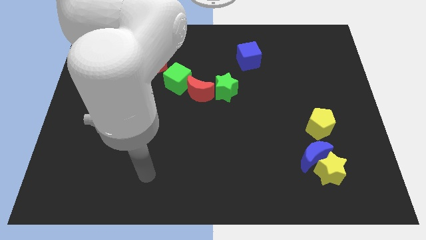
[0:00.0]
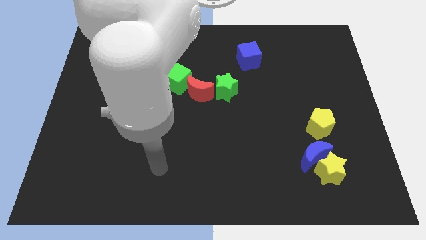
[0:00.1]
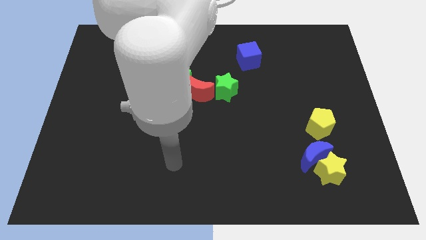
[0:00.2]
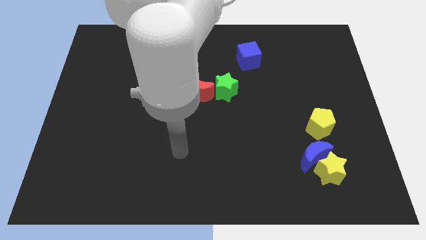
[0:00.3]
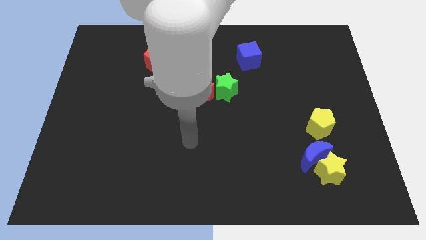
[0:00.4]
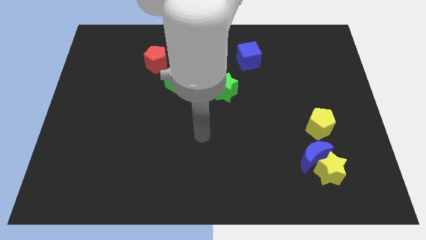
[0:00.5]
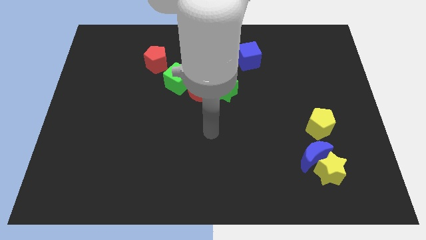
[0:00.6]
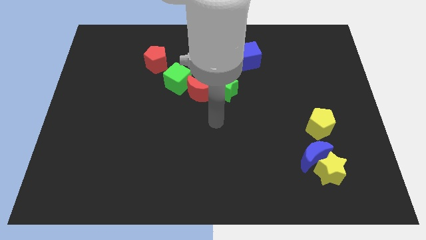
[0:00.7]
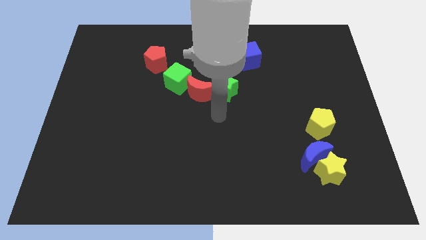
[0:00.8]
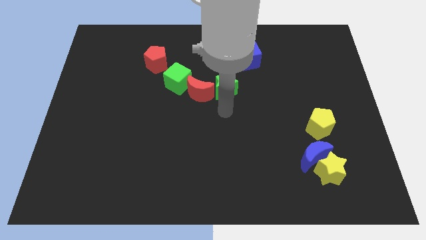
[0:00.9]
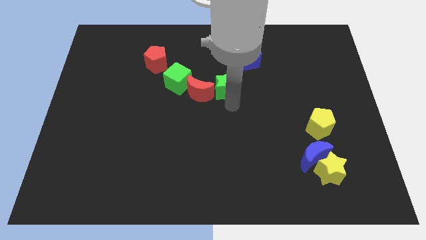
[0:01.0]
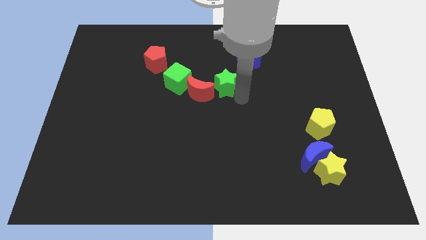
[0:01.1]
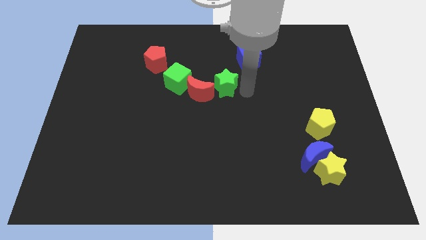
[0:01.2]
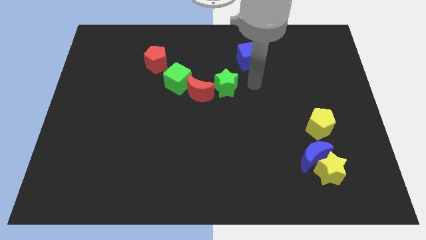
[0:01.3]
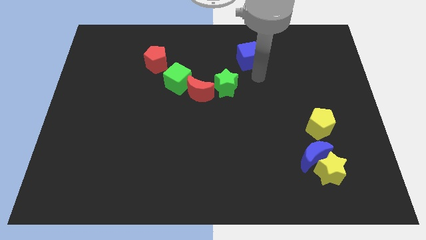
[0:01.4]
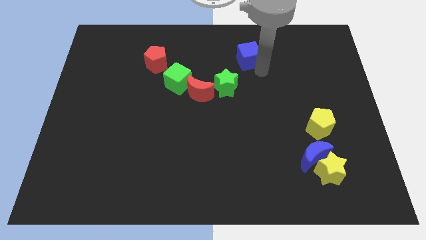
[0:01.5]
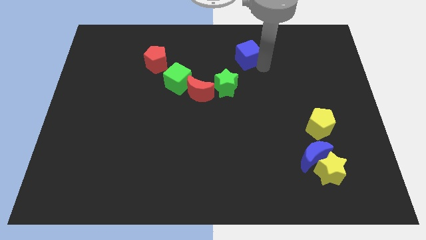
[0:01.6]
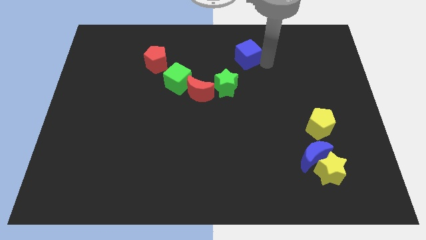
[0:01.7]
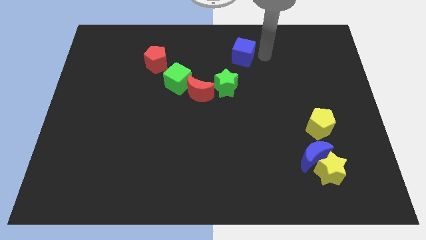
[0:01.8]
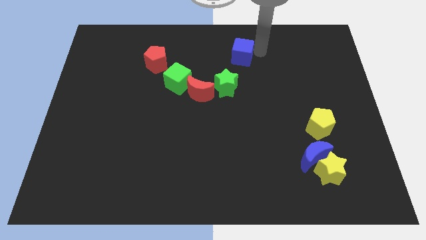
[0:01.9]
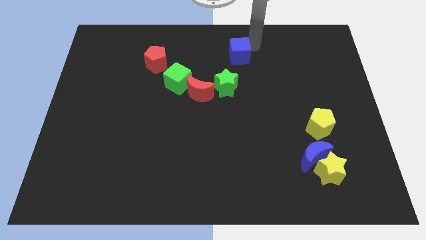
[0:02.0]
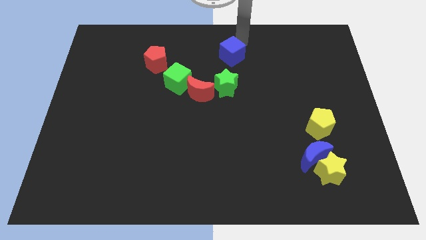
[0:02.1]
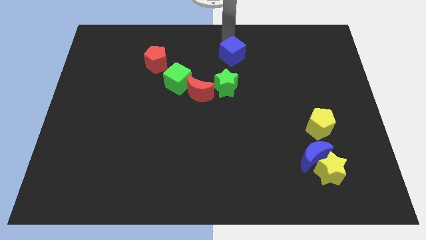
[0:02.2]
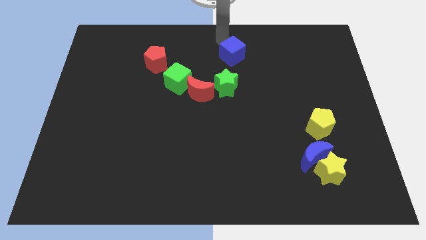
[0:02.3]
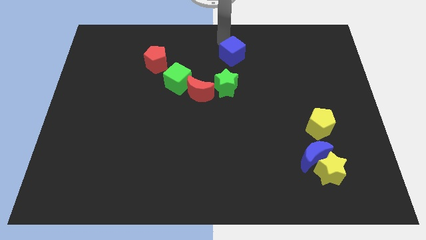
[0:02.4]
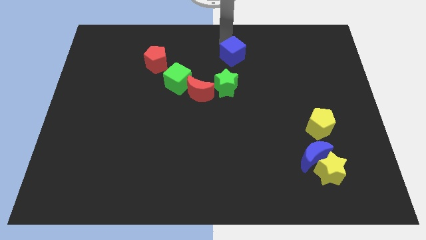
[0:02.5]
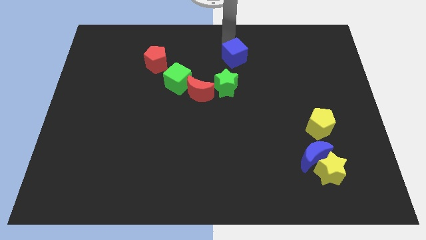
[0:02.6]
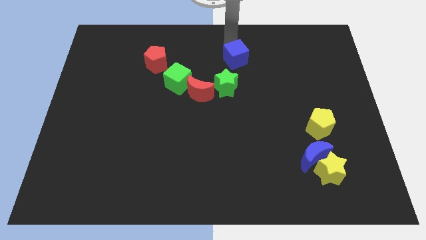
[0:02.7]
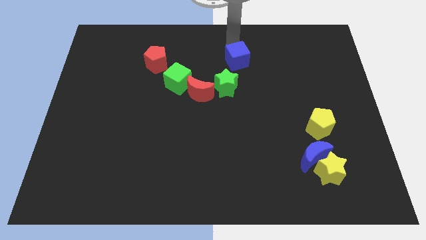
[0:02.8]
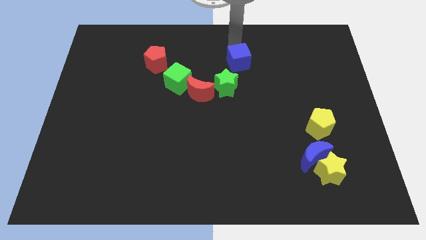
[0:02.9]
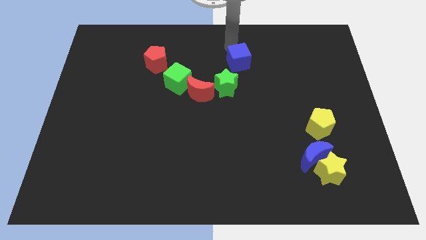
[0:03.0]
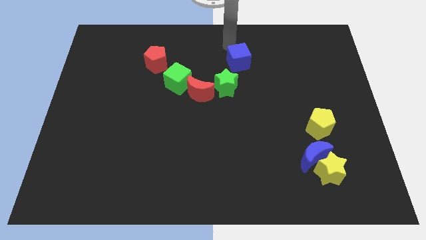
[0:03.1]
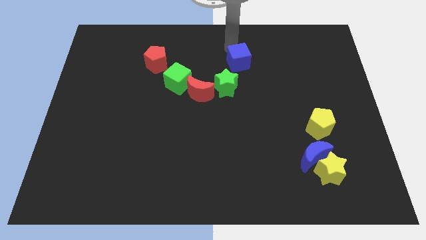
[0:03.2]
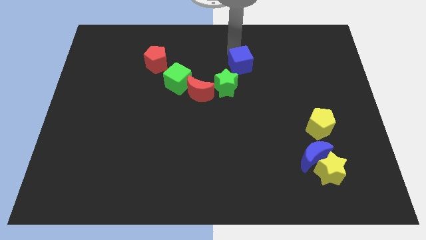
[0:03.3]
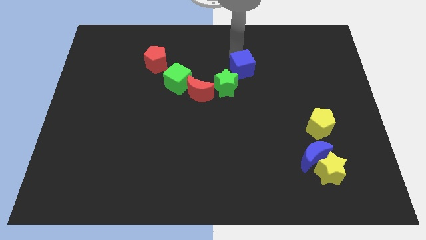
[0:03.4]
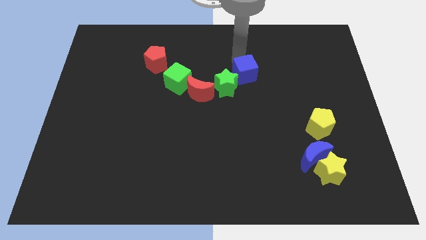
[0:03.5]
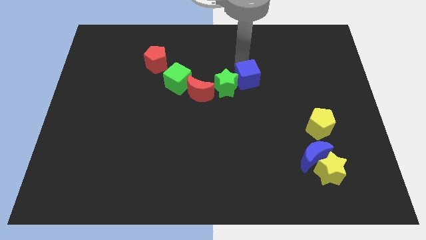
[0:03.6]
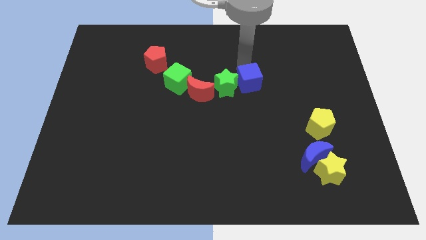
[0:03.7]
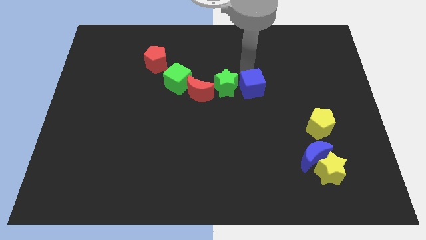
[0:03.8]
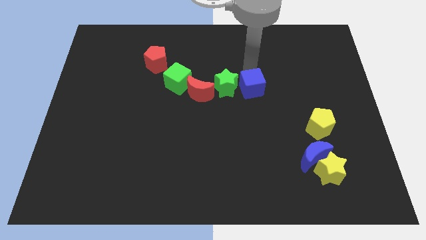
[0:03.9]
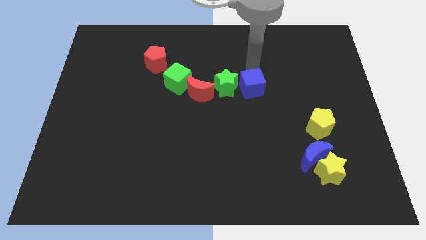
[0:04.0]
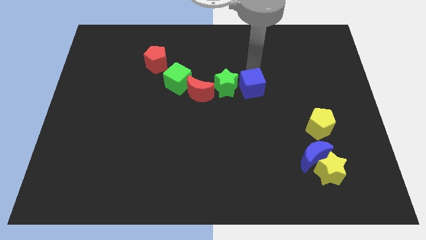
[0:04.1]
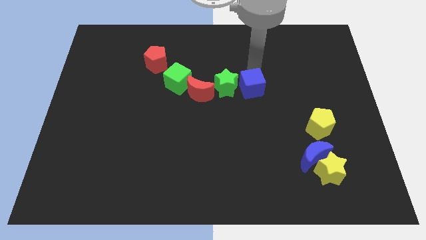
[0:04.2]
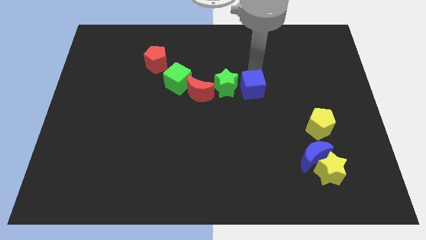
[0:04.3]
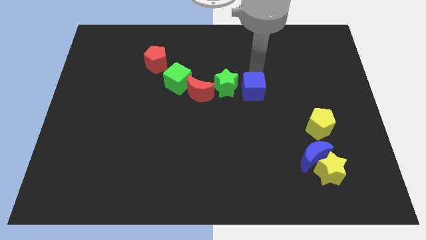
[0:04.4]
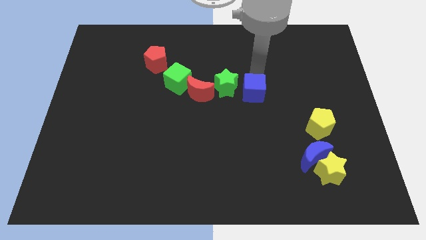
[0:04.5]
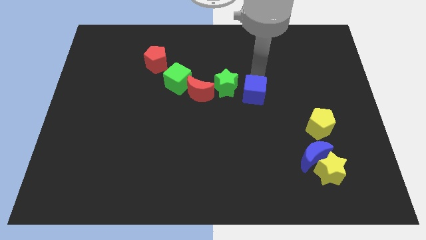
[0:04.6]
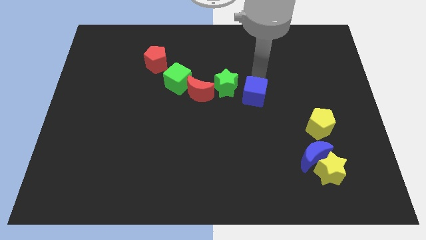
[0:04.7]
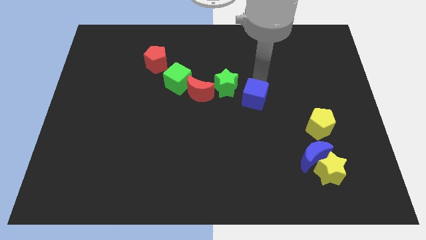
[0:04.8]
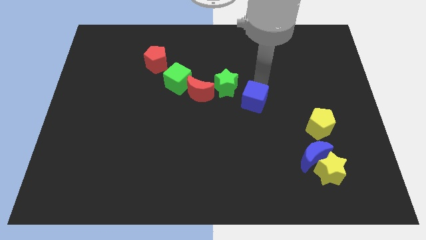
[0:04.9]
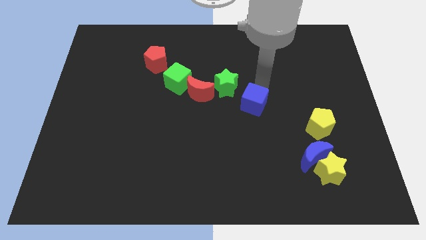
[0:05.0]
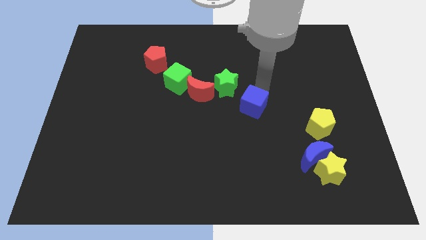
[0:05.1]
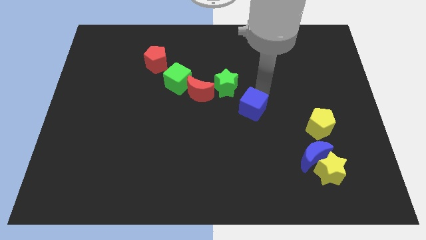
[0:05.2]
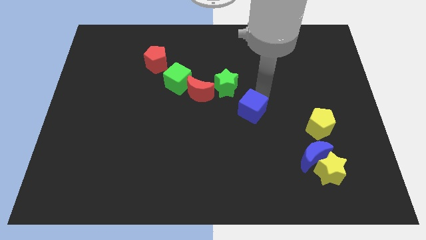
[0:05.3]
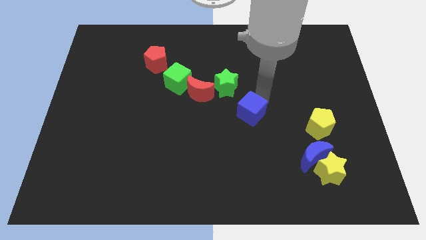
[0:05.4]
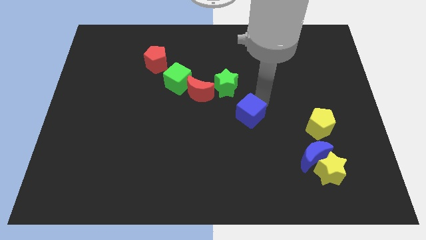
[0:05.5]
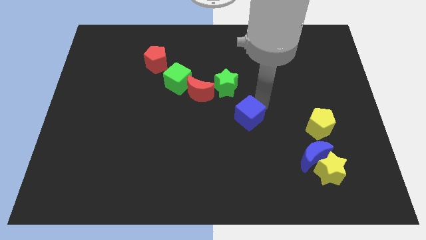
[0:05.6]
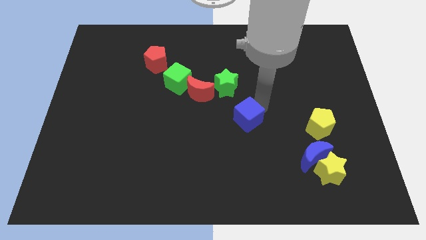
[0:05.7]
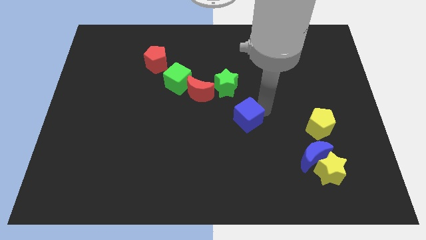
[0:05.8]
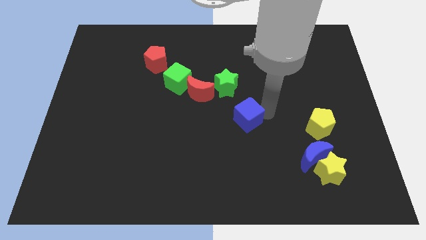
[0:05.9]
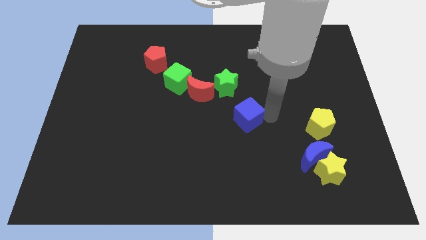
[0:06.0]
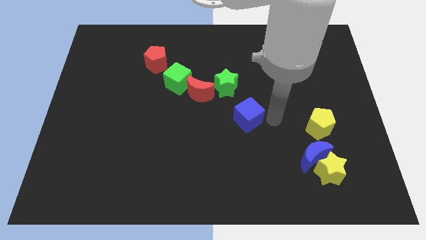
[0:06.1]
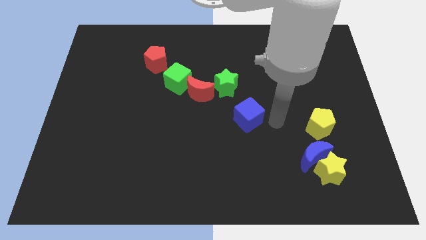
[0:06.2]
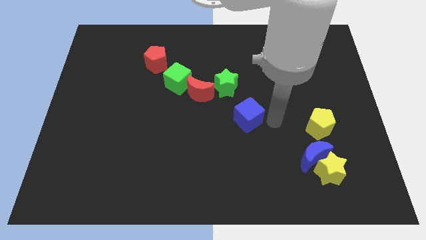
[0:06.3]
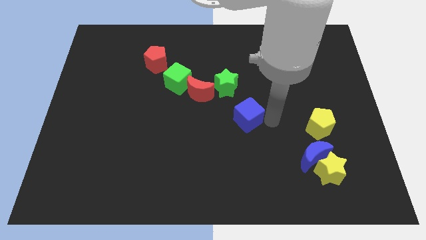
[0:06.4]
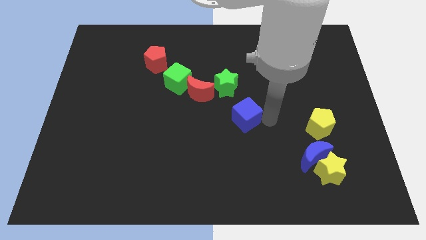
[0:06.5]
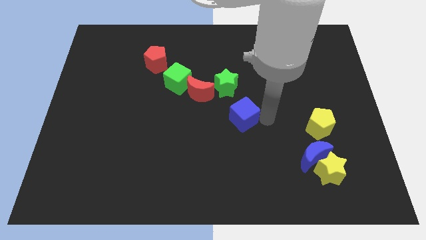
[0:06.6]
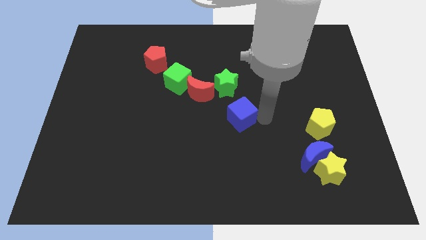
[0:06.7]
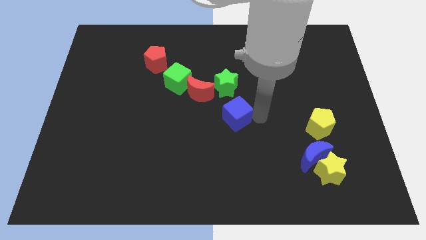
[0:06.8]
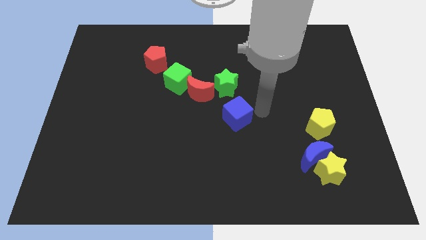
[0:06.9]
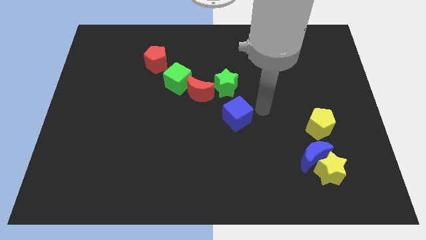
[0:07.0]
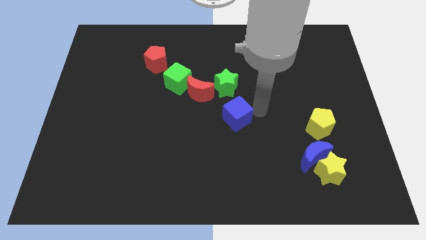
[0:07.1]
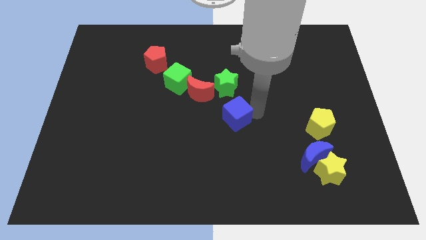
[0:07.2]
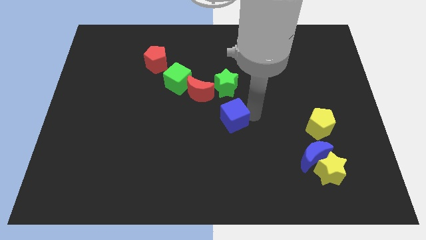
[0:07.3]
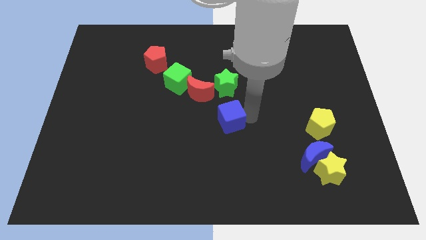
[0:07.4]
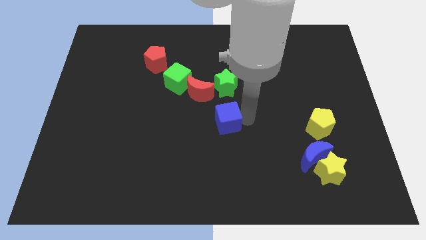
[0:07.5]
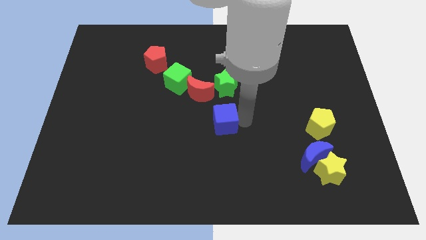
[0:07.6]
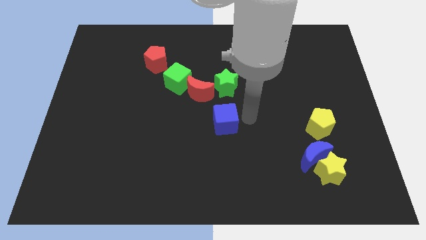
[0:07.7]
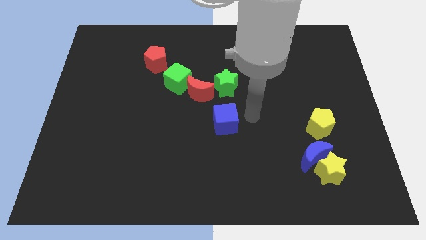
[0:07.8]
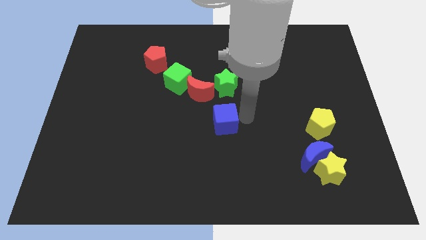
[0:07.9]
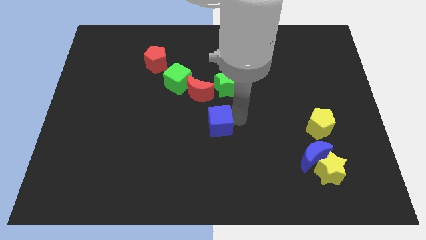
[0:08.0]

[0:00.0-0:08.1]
push the blue cube below the red moon
